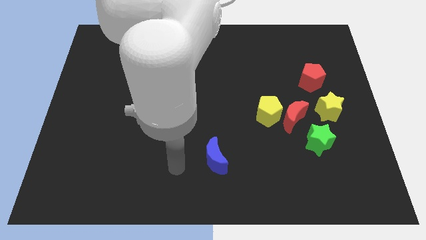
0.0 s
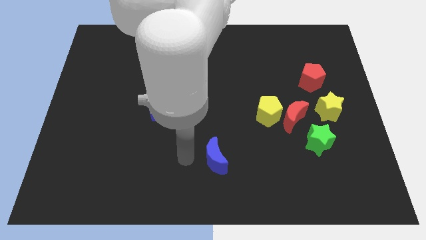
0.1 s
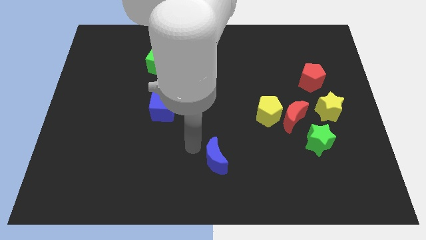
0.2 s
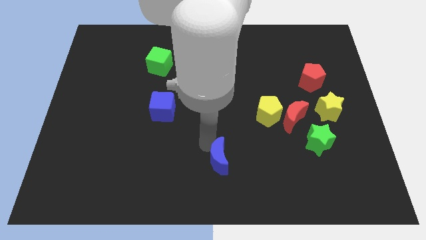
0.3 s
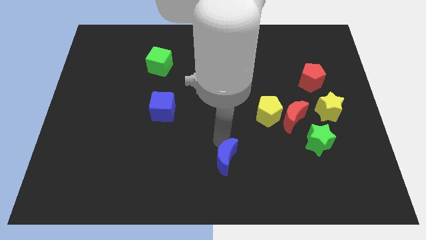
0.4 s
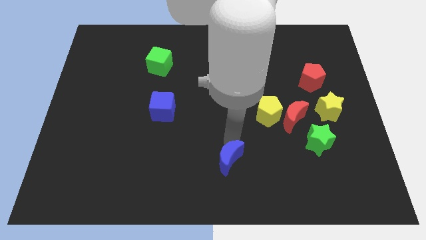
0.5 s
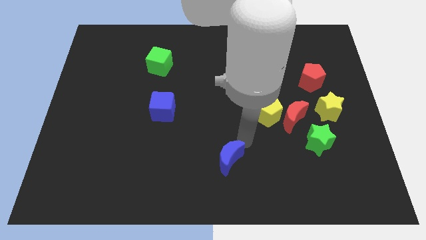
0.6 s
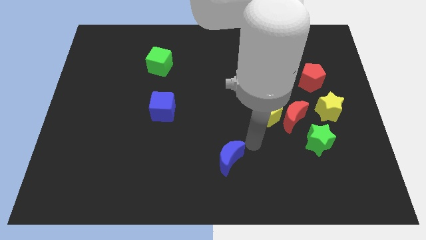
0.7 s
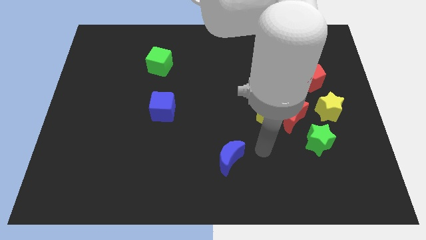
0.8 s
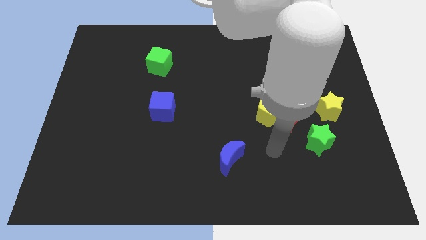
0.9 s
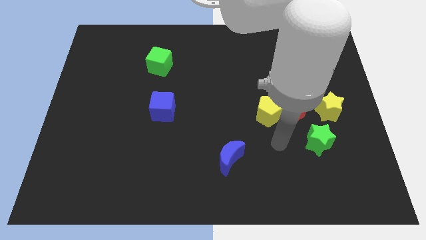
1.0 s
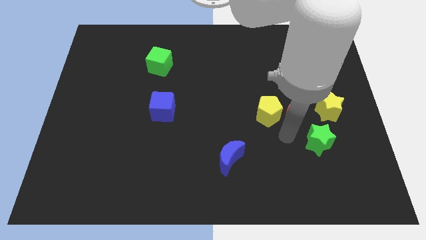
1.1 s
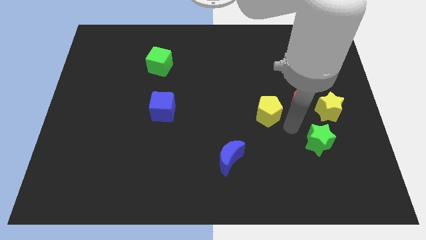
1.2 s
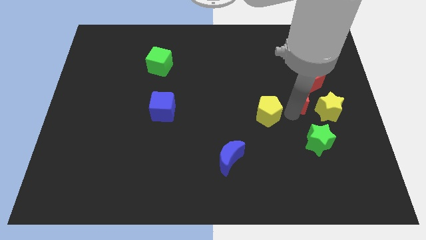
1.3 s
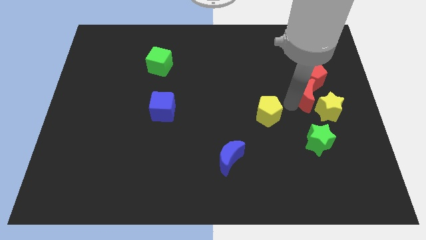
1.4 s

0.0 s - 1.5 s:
move the yellow pentagon away from the red moon

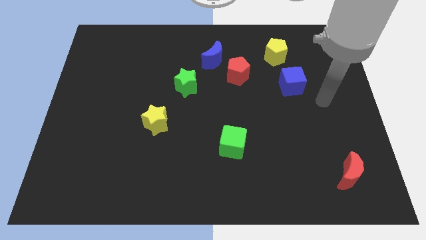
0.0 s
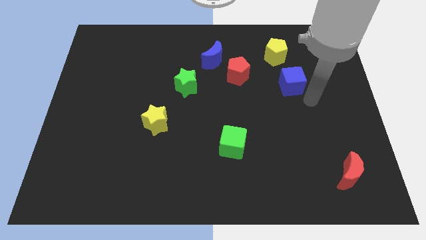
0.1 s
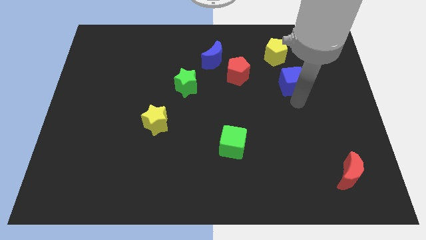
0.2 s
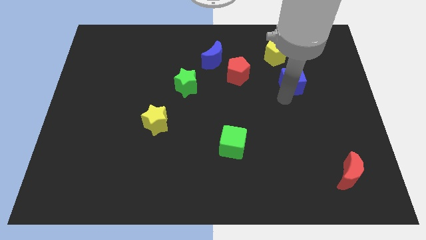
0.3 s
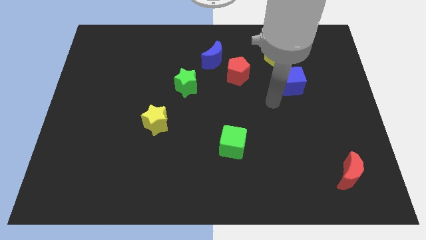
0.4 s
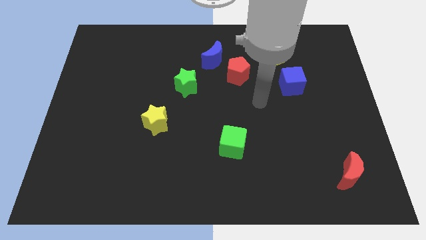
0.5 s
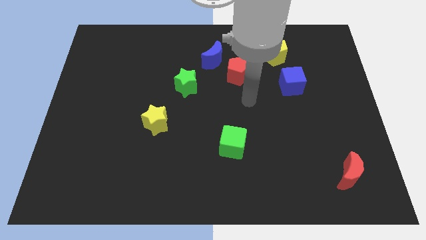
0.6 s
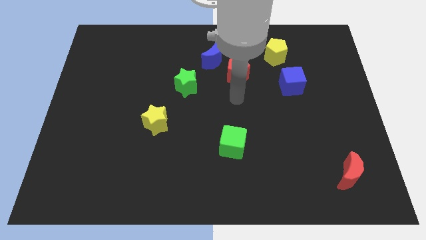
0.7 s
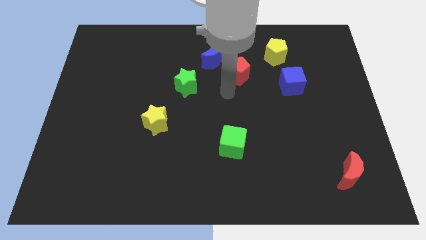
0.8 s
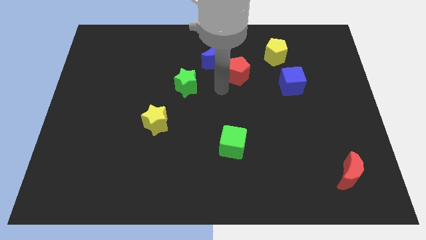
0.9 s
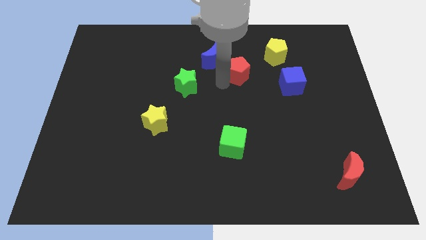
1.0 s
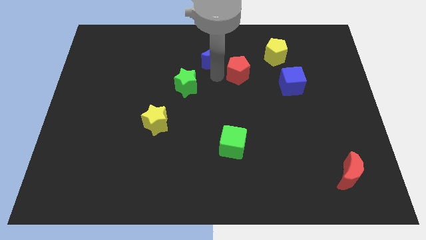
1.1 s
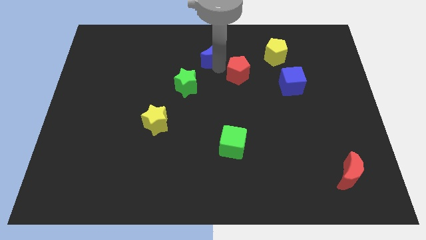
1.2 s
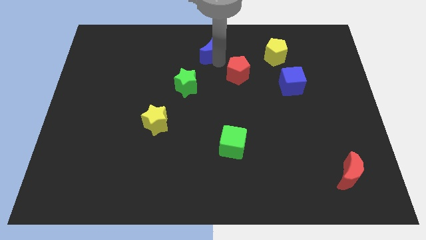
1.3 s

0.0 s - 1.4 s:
move the red pentagon away from the blue moon

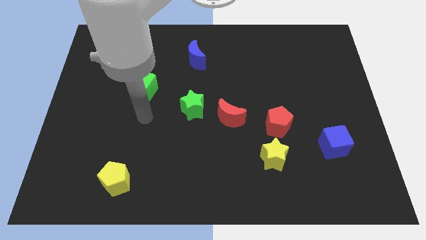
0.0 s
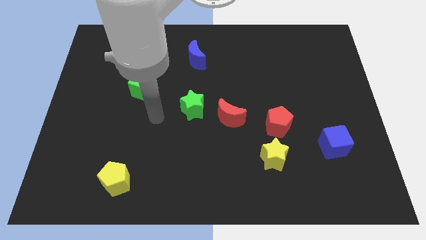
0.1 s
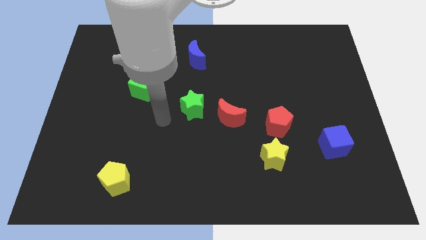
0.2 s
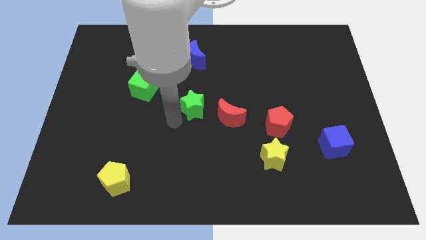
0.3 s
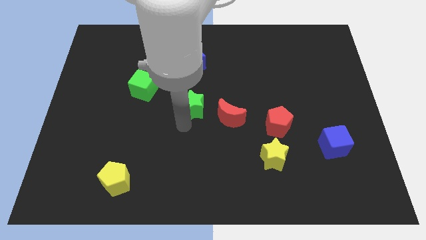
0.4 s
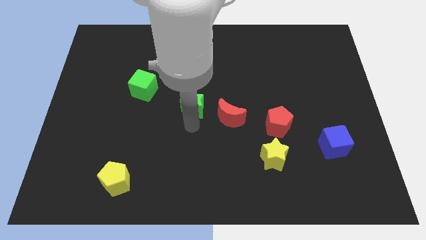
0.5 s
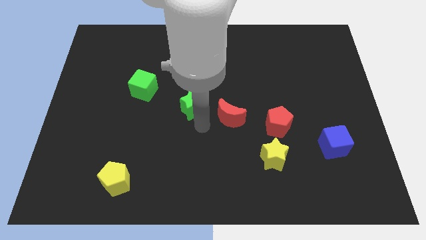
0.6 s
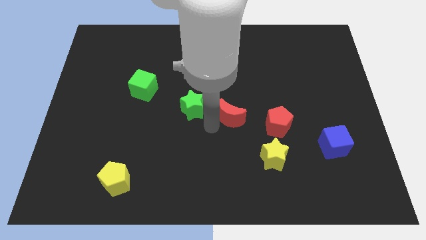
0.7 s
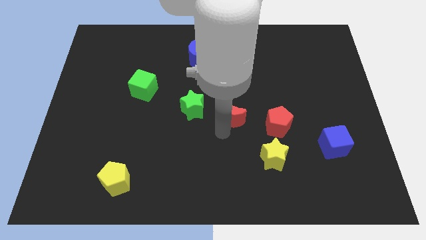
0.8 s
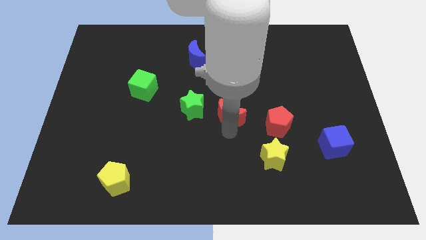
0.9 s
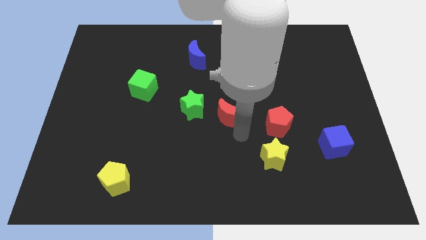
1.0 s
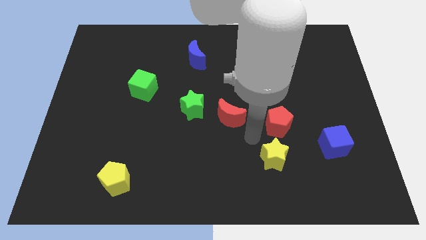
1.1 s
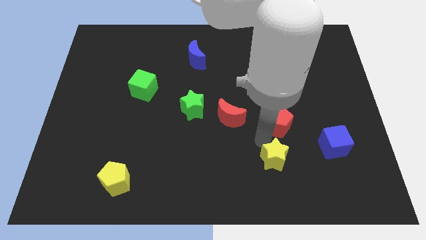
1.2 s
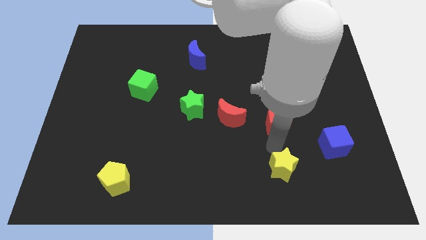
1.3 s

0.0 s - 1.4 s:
move the red pentagon away from the yellow star

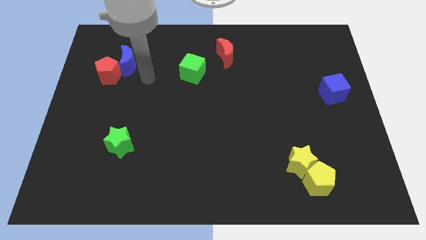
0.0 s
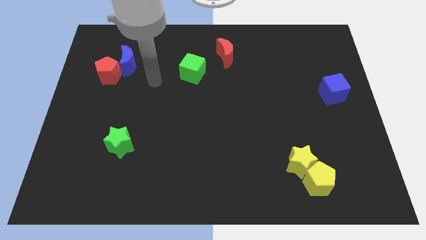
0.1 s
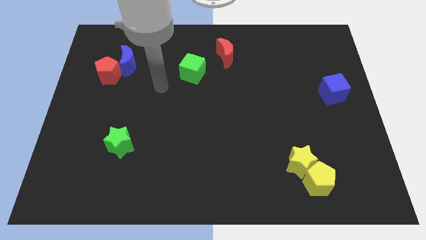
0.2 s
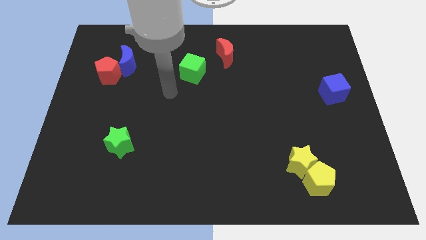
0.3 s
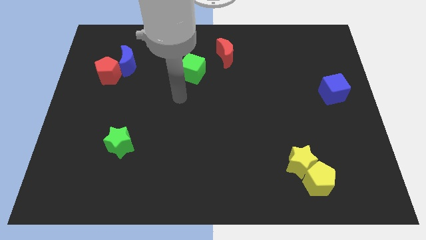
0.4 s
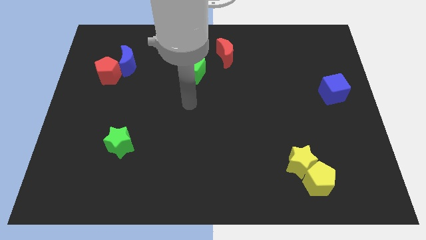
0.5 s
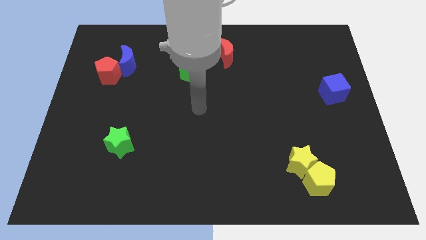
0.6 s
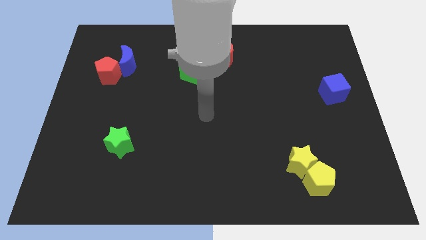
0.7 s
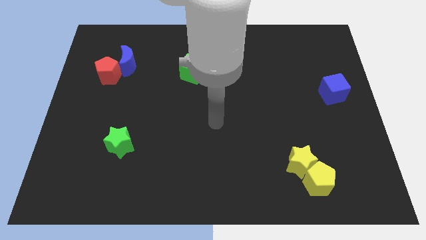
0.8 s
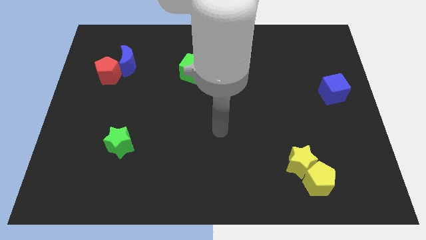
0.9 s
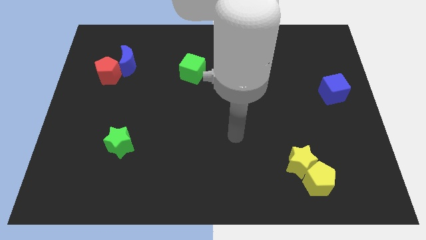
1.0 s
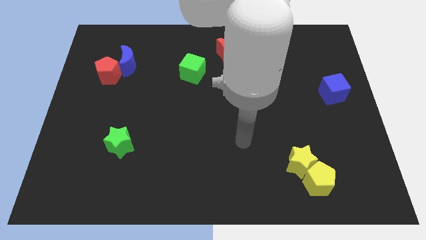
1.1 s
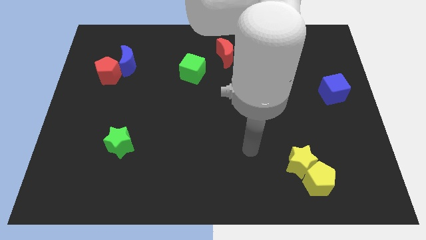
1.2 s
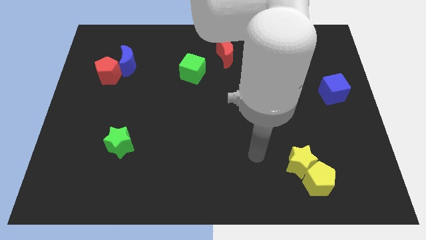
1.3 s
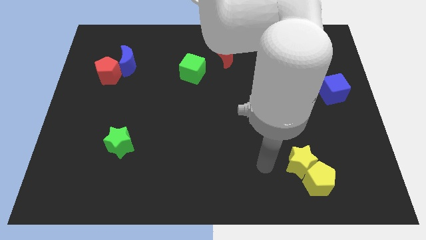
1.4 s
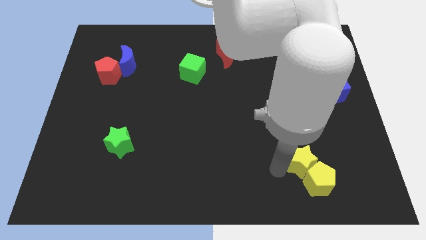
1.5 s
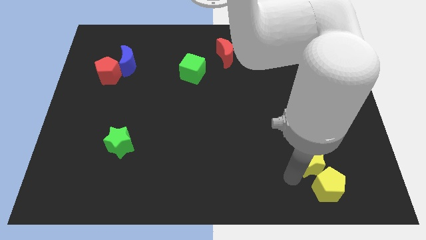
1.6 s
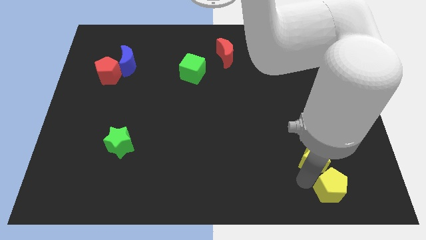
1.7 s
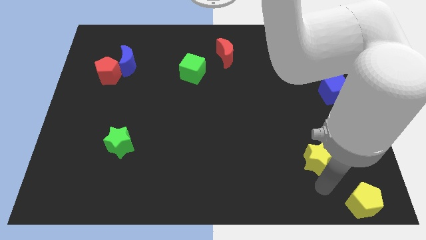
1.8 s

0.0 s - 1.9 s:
move the yellow star away from the yellow pentagon
